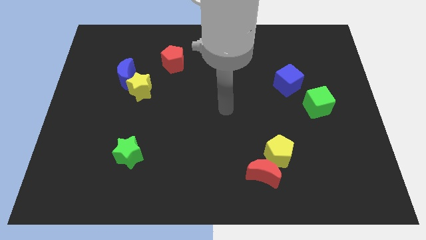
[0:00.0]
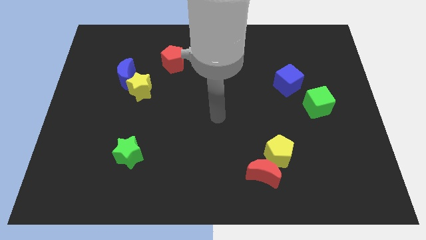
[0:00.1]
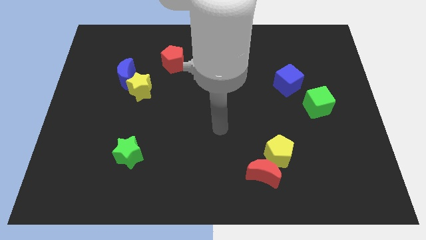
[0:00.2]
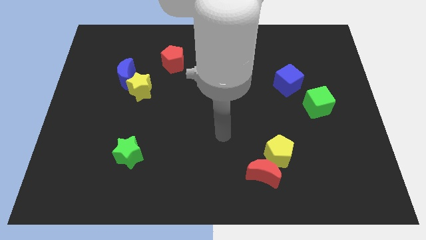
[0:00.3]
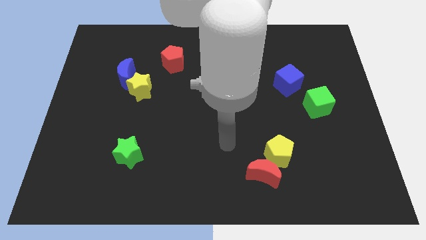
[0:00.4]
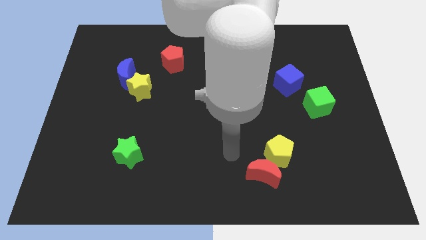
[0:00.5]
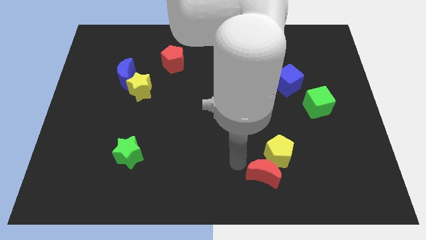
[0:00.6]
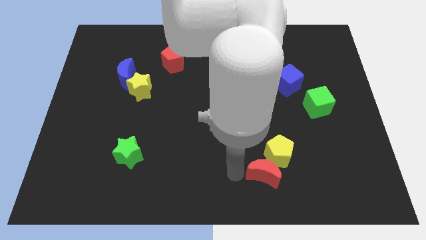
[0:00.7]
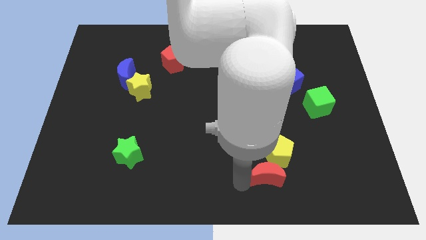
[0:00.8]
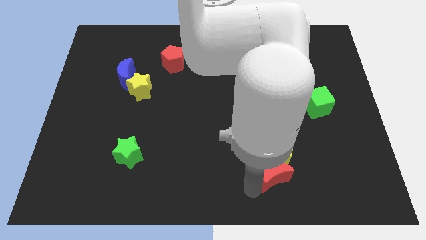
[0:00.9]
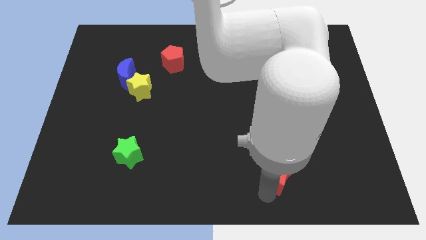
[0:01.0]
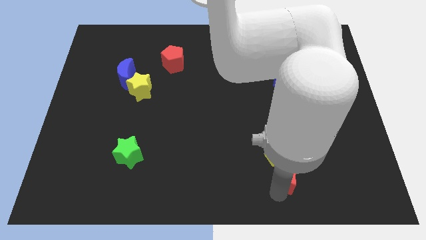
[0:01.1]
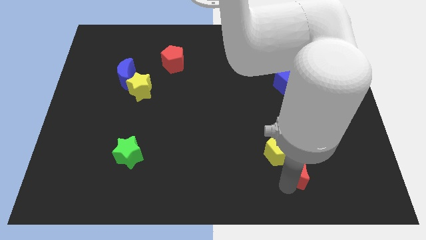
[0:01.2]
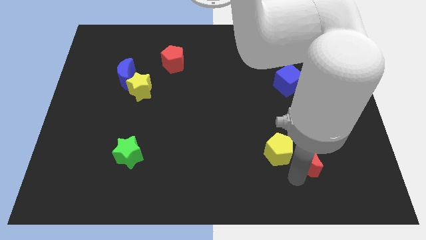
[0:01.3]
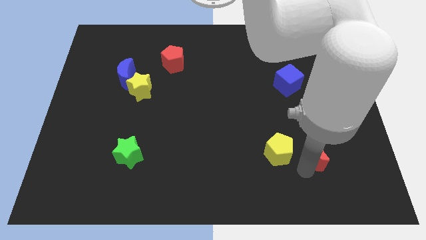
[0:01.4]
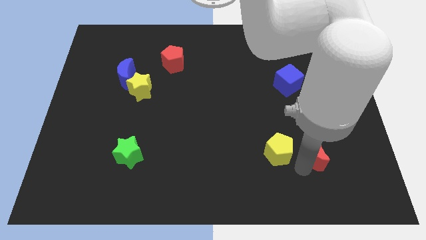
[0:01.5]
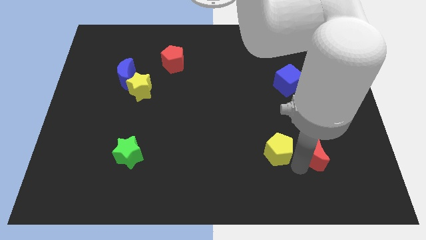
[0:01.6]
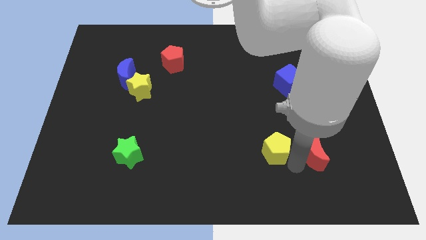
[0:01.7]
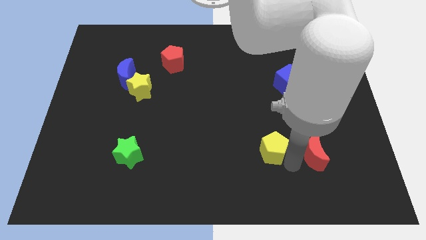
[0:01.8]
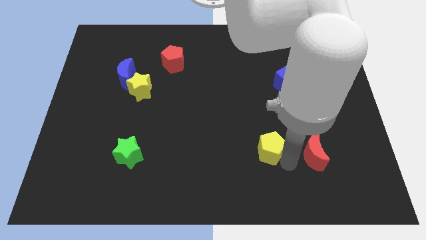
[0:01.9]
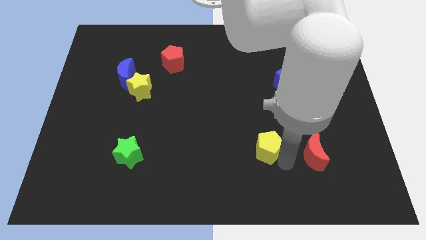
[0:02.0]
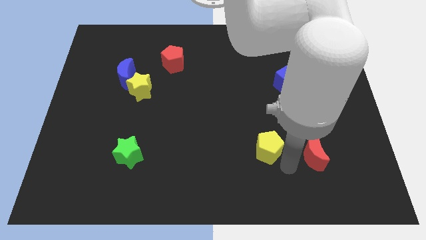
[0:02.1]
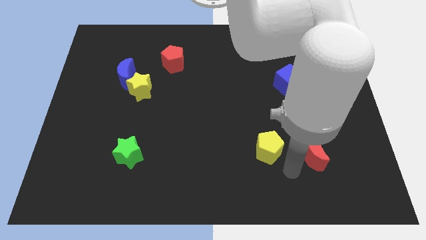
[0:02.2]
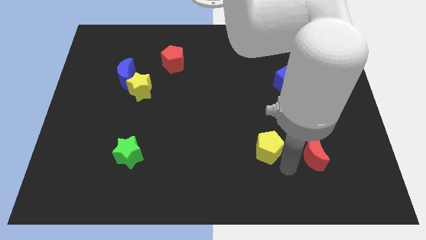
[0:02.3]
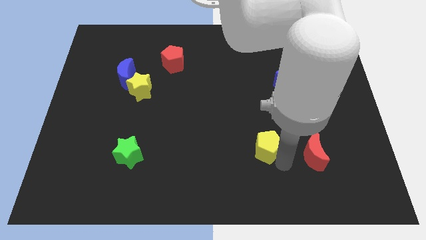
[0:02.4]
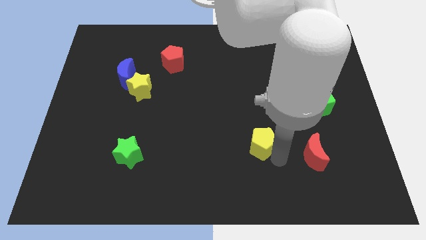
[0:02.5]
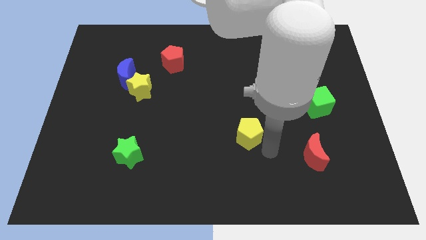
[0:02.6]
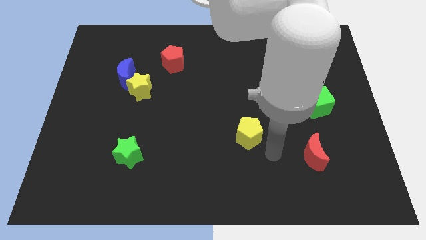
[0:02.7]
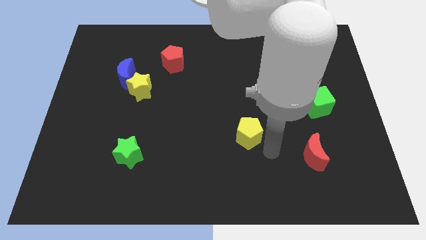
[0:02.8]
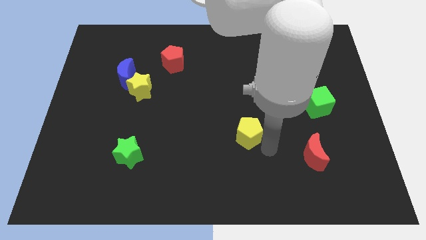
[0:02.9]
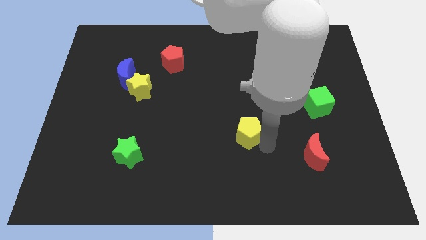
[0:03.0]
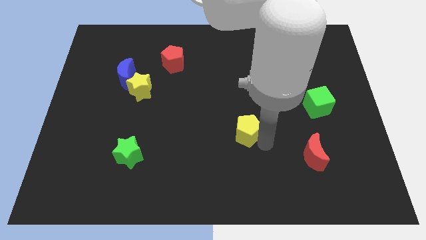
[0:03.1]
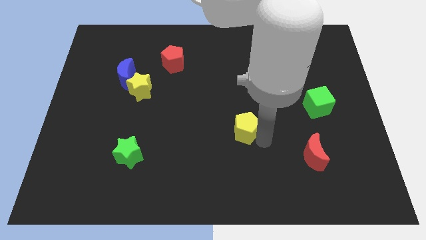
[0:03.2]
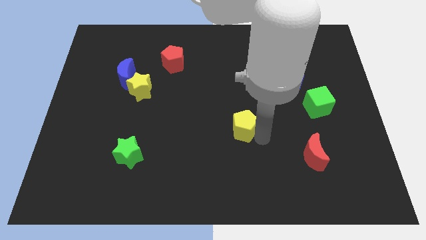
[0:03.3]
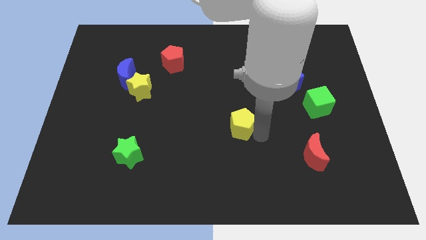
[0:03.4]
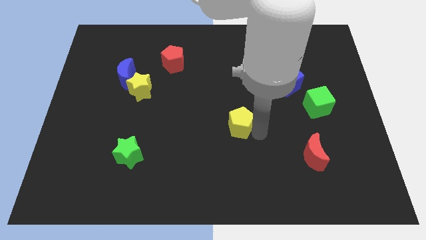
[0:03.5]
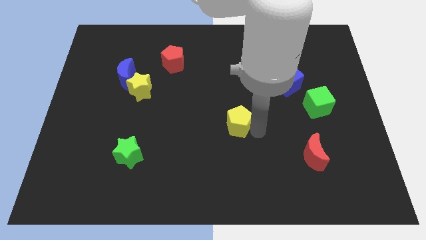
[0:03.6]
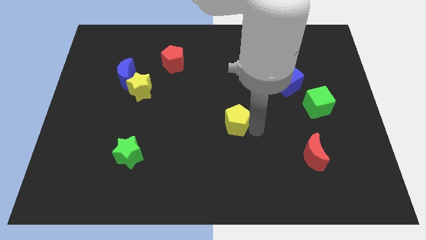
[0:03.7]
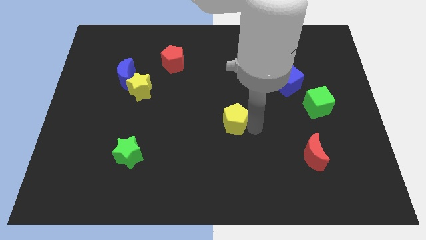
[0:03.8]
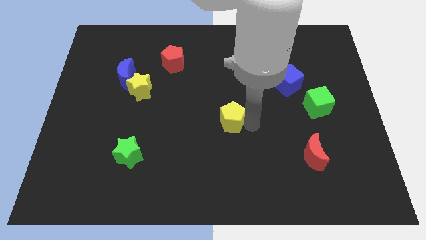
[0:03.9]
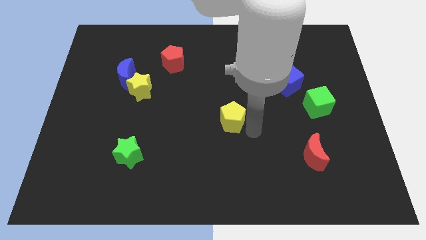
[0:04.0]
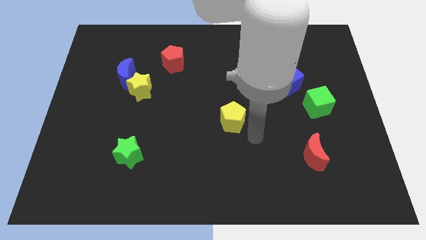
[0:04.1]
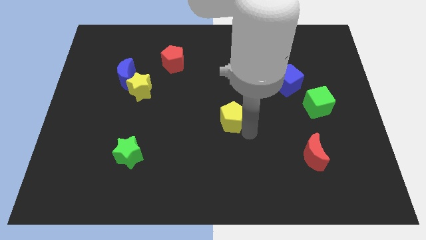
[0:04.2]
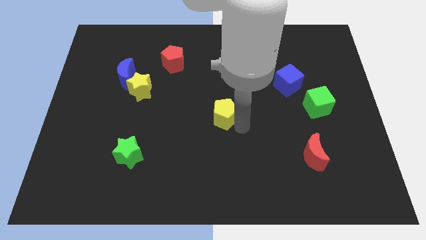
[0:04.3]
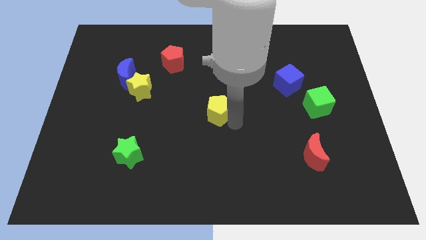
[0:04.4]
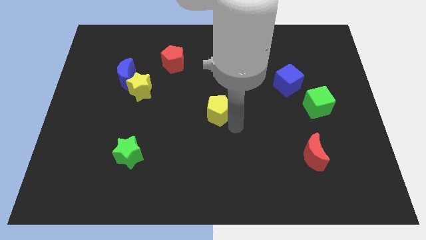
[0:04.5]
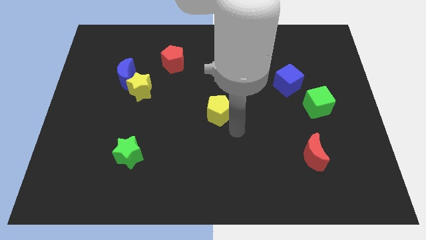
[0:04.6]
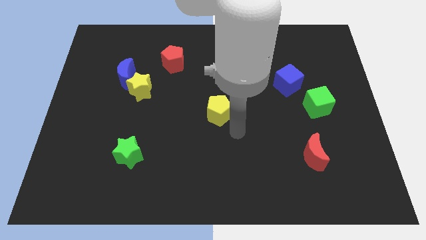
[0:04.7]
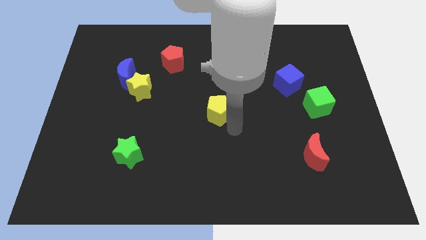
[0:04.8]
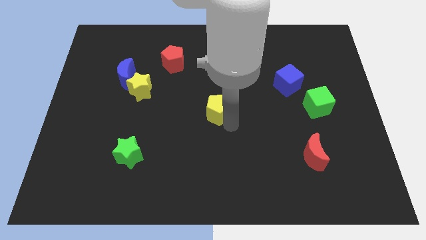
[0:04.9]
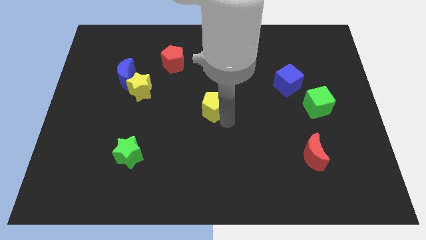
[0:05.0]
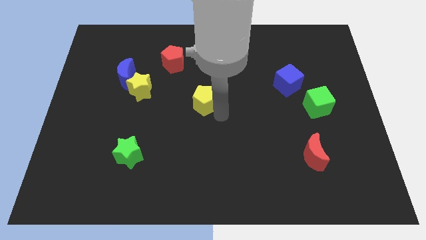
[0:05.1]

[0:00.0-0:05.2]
push the yellow pentagon upwards and left

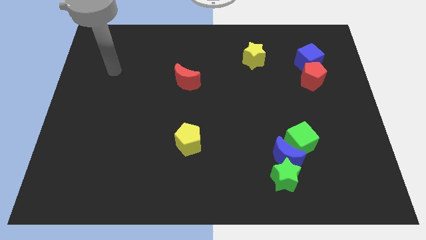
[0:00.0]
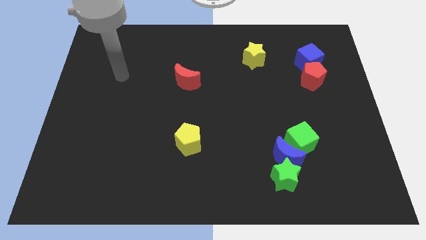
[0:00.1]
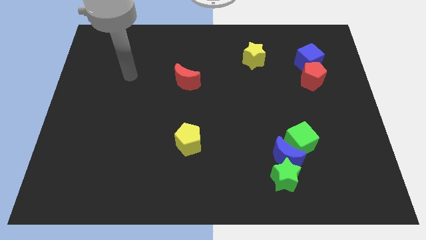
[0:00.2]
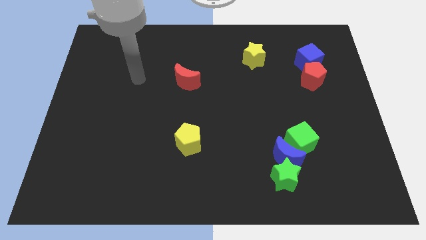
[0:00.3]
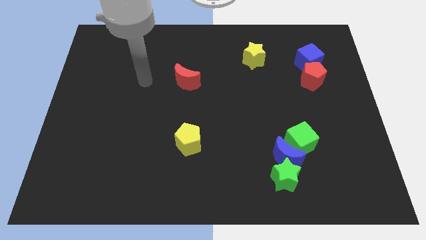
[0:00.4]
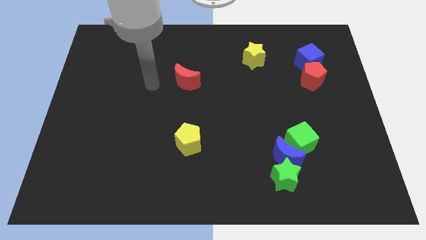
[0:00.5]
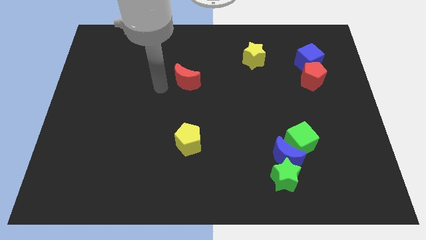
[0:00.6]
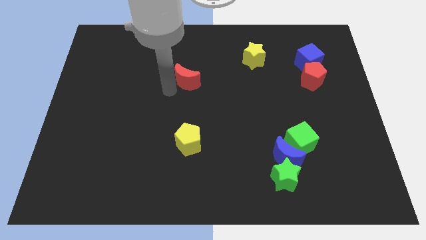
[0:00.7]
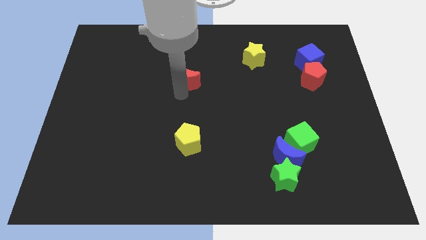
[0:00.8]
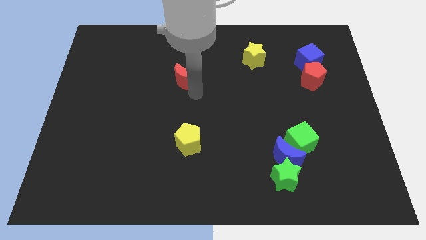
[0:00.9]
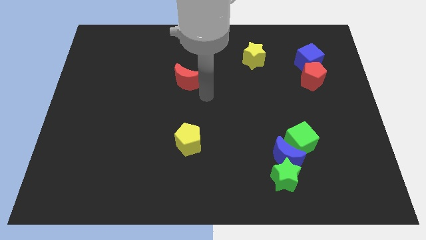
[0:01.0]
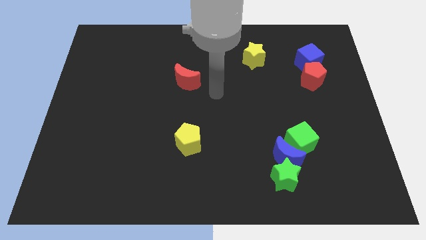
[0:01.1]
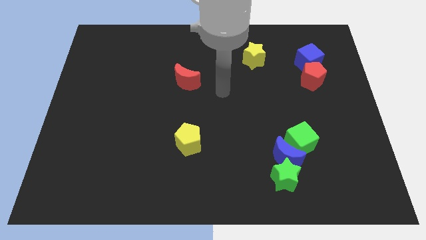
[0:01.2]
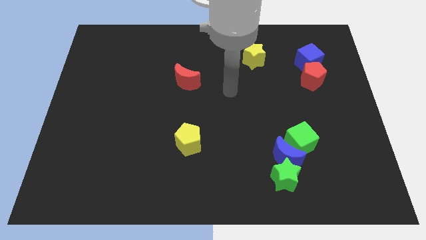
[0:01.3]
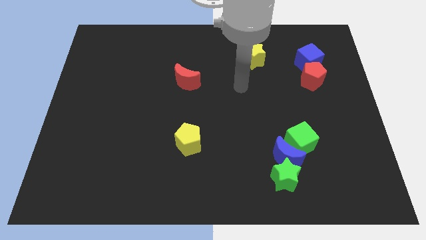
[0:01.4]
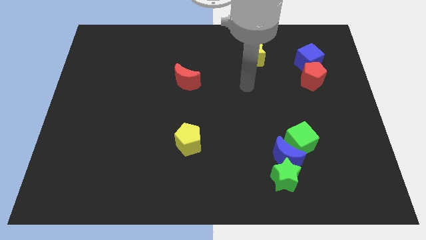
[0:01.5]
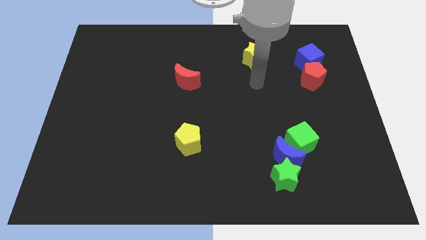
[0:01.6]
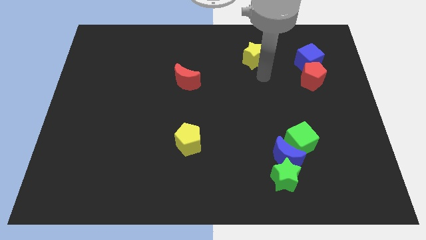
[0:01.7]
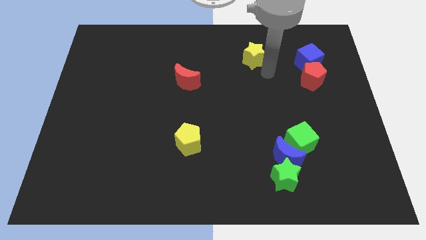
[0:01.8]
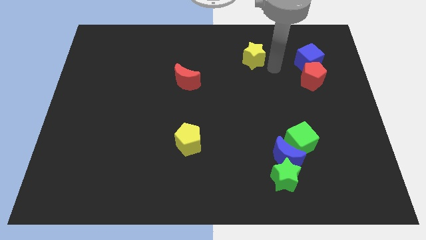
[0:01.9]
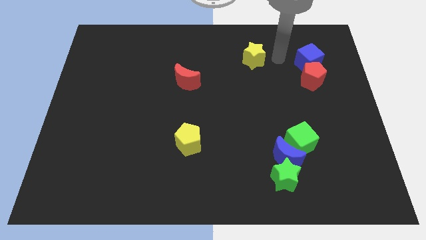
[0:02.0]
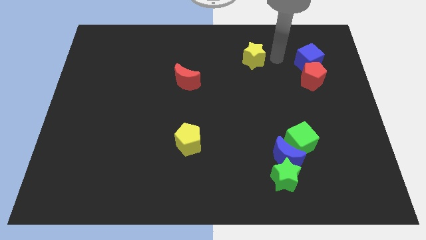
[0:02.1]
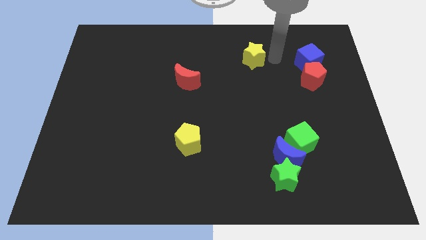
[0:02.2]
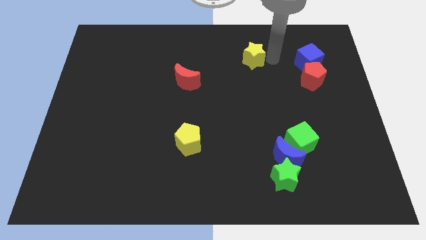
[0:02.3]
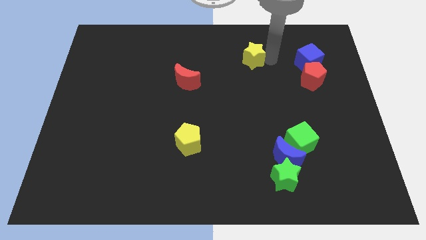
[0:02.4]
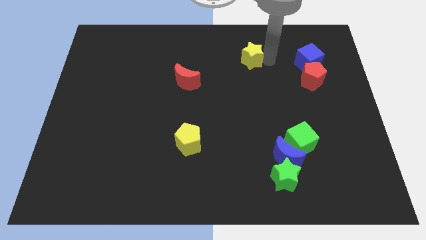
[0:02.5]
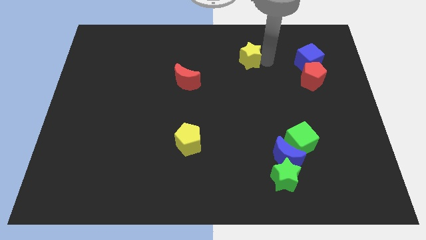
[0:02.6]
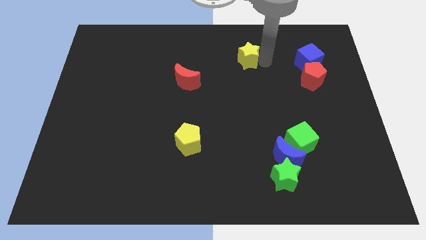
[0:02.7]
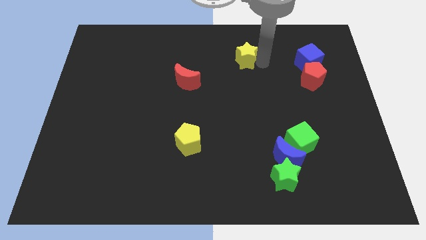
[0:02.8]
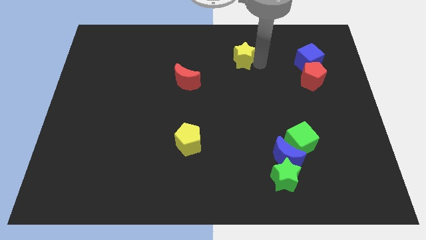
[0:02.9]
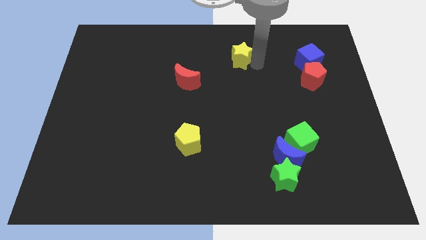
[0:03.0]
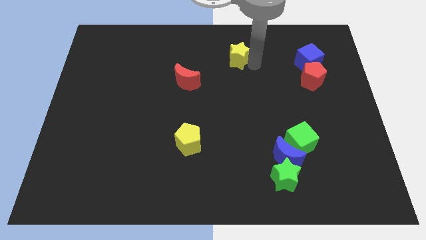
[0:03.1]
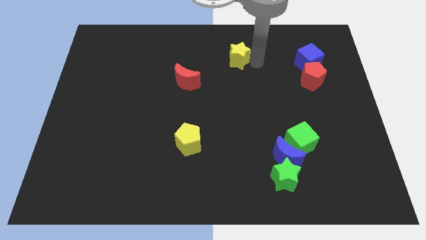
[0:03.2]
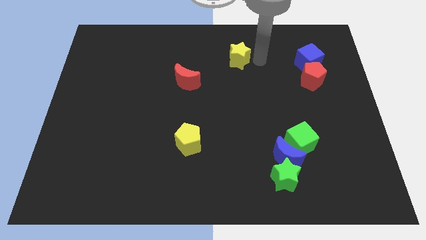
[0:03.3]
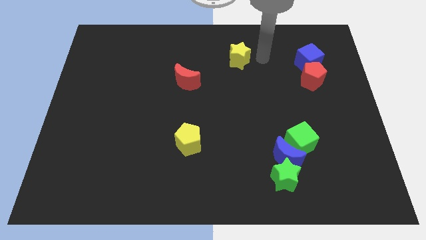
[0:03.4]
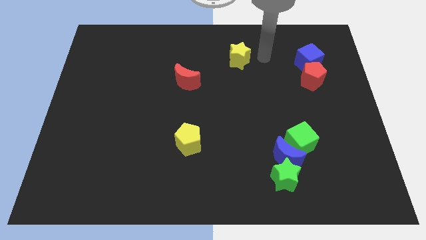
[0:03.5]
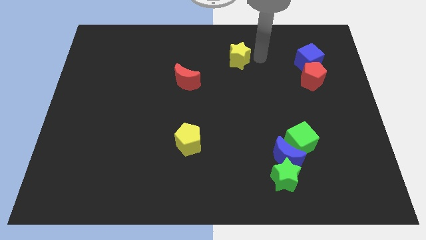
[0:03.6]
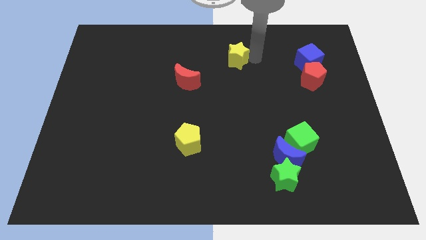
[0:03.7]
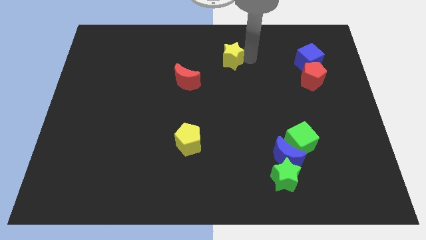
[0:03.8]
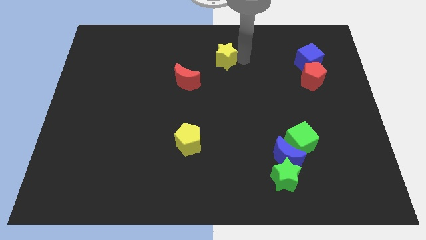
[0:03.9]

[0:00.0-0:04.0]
slightly slide the yellow star to the left
